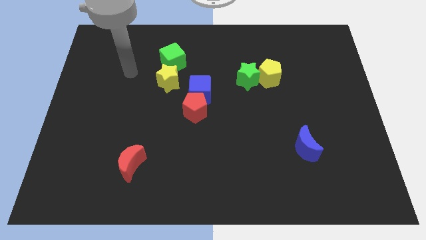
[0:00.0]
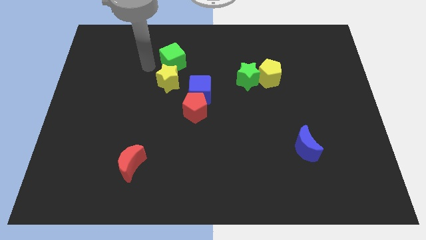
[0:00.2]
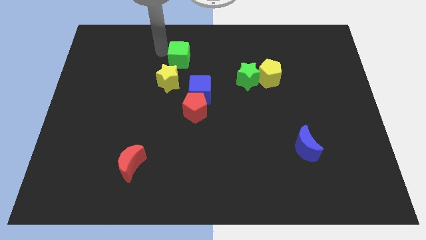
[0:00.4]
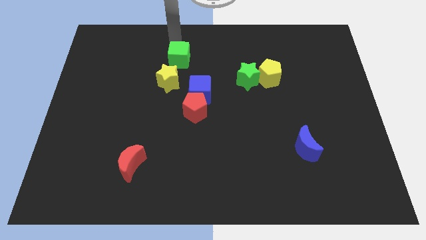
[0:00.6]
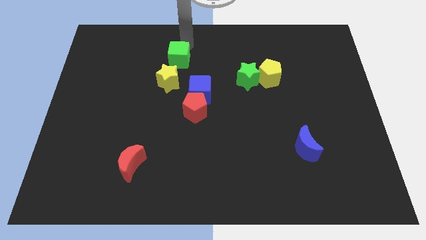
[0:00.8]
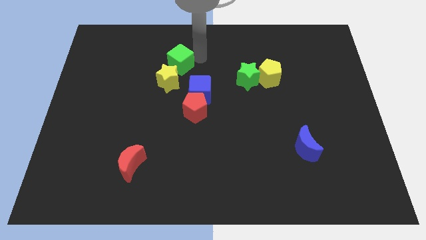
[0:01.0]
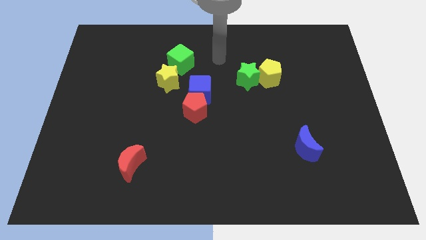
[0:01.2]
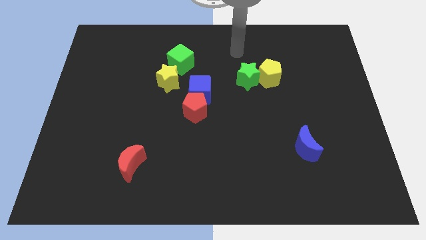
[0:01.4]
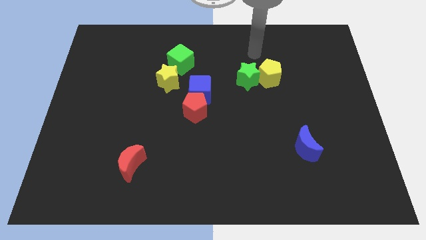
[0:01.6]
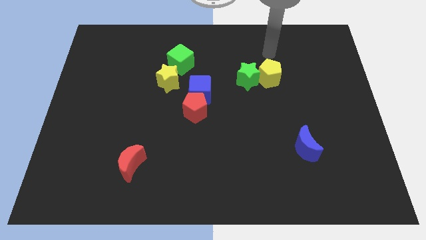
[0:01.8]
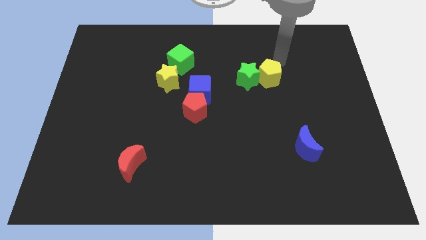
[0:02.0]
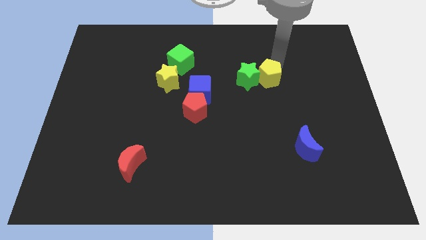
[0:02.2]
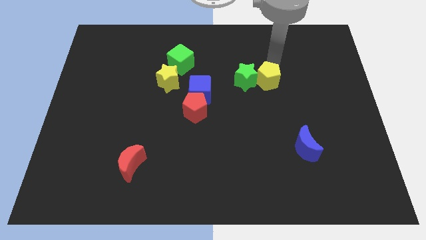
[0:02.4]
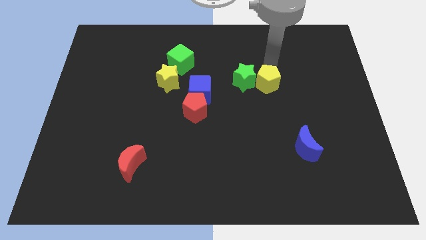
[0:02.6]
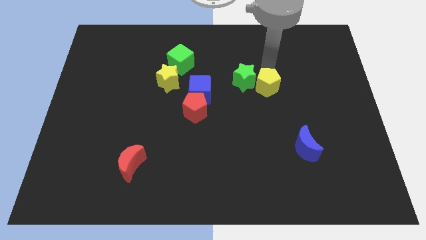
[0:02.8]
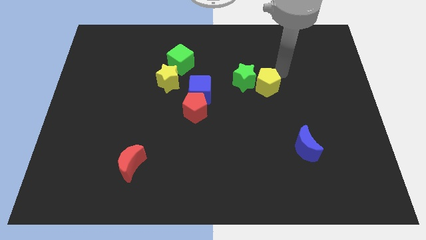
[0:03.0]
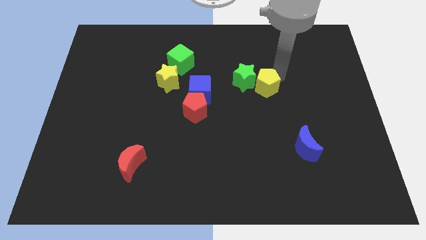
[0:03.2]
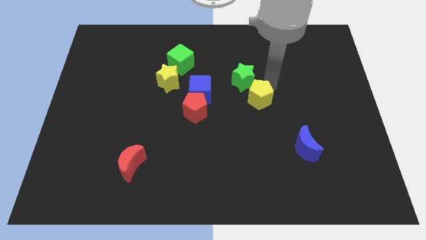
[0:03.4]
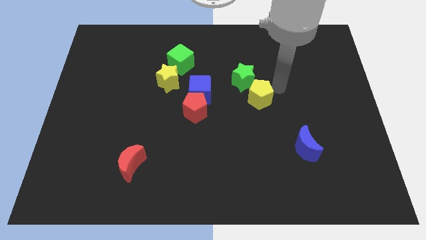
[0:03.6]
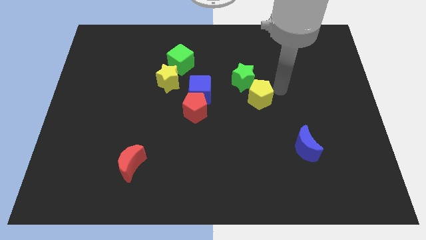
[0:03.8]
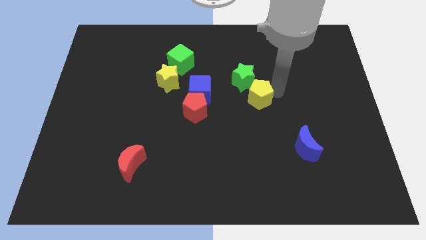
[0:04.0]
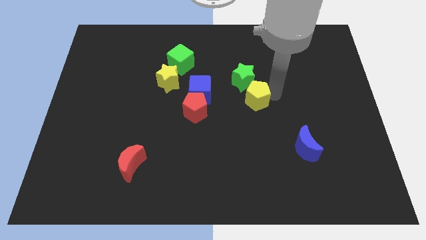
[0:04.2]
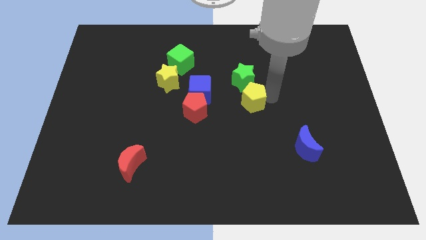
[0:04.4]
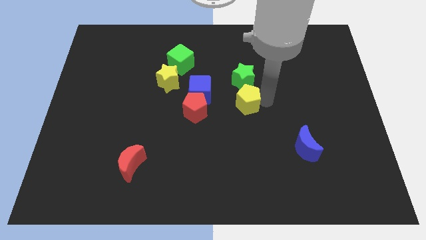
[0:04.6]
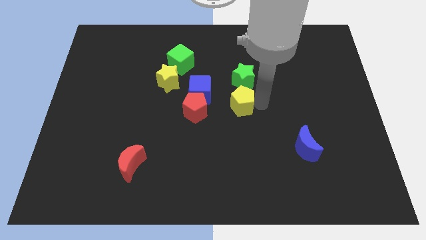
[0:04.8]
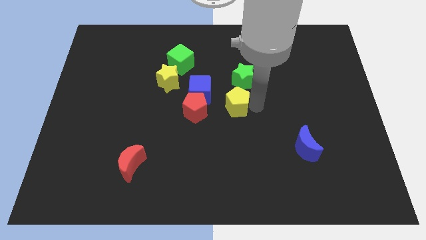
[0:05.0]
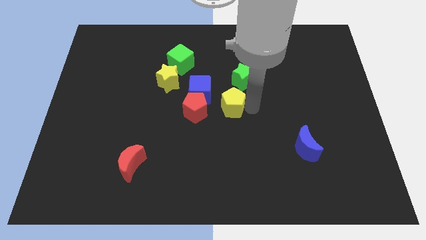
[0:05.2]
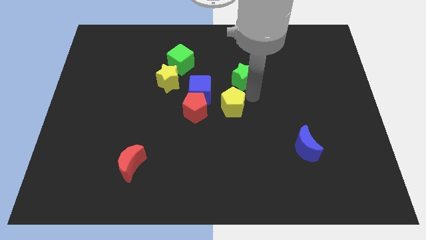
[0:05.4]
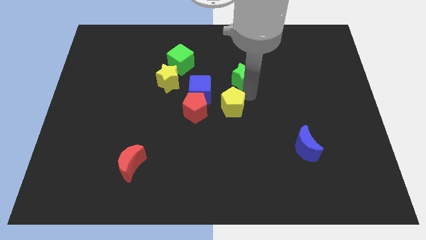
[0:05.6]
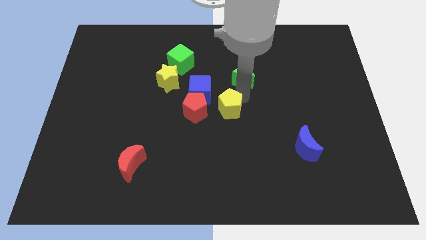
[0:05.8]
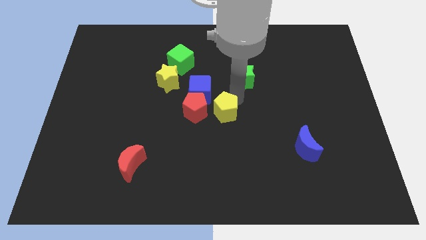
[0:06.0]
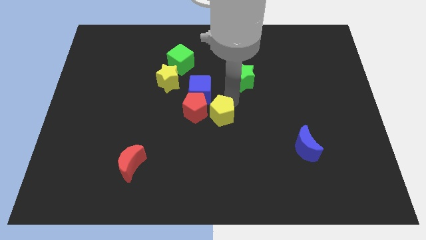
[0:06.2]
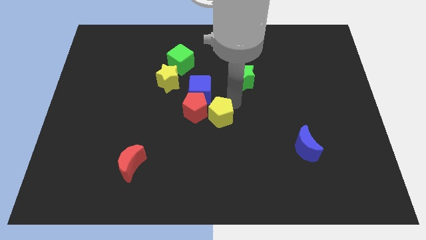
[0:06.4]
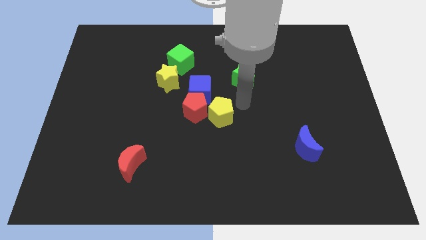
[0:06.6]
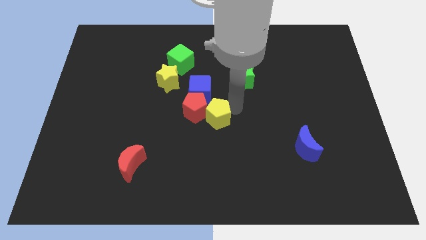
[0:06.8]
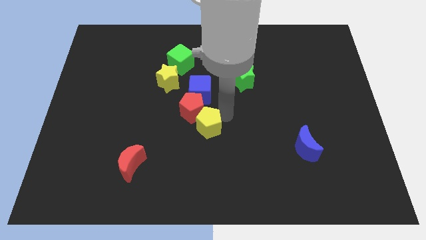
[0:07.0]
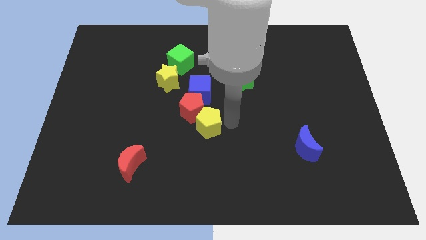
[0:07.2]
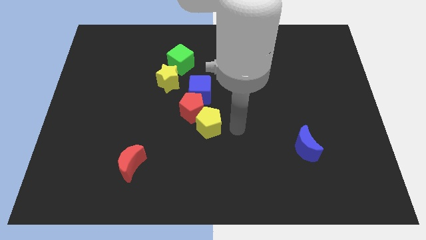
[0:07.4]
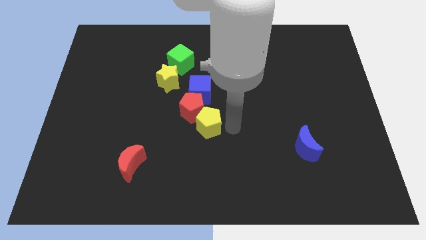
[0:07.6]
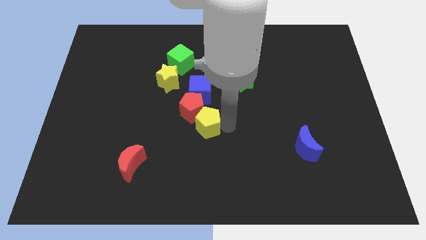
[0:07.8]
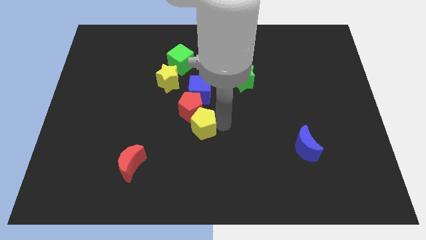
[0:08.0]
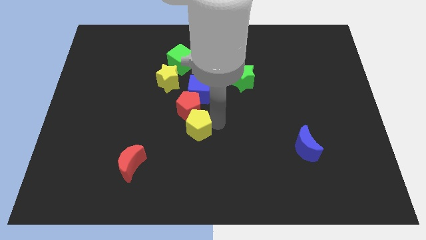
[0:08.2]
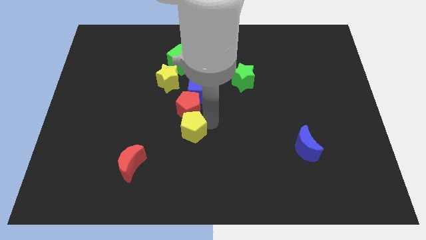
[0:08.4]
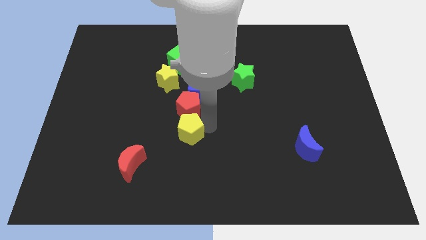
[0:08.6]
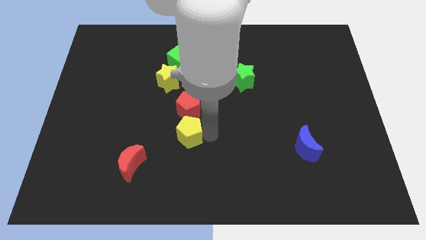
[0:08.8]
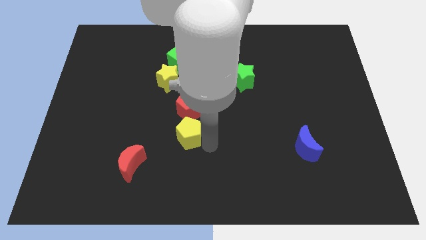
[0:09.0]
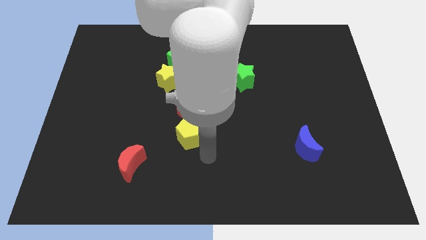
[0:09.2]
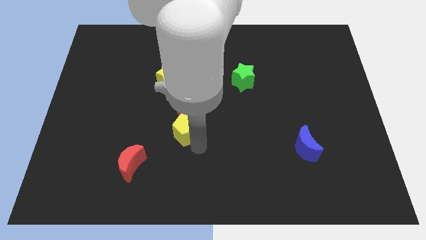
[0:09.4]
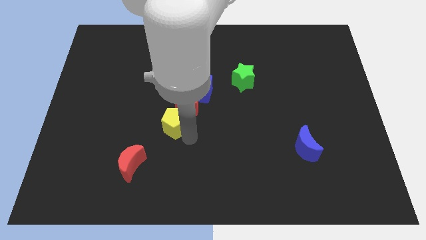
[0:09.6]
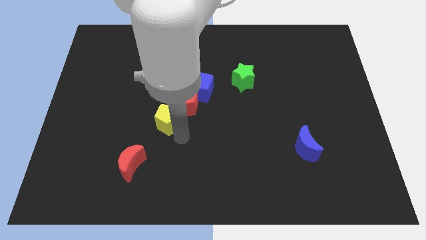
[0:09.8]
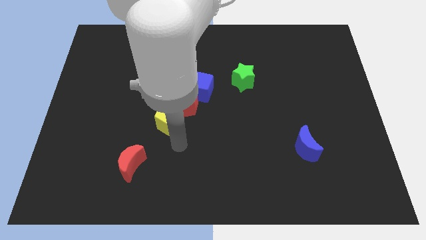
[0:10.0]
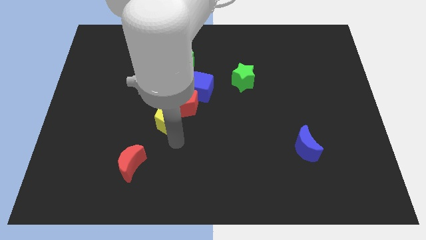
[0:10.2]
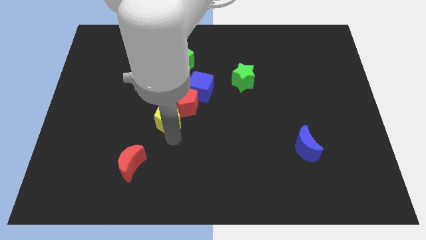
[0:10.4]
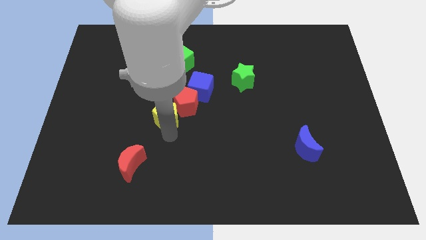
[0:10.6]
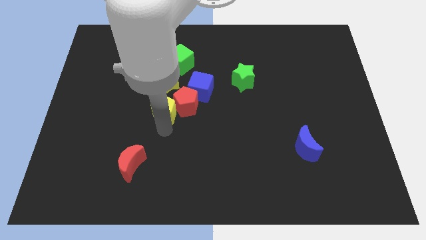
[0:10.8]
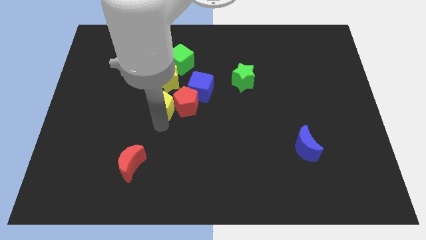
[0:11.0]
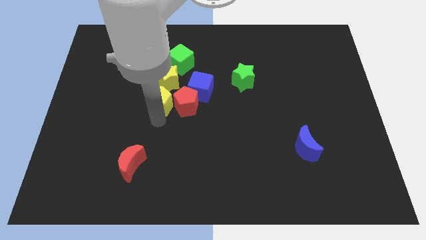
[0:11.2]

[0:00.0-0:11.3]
push the yellow pentagon left of the blue cube

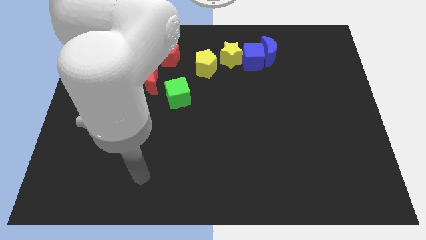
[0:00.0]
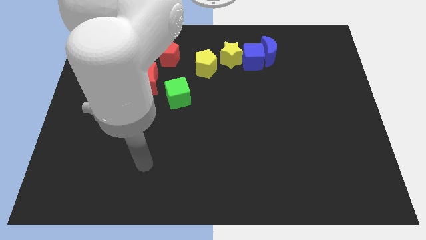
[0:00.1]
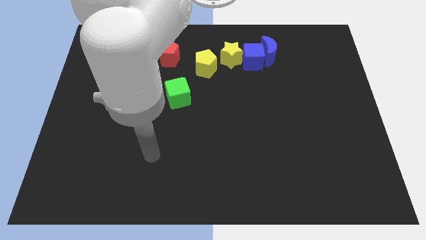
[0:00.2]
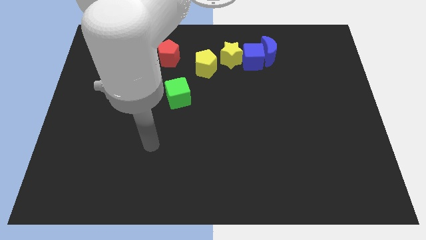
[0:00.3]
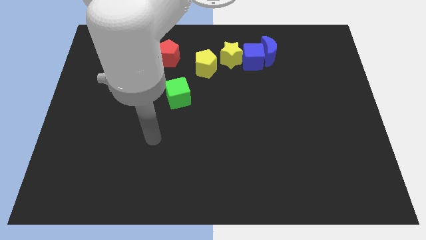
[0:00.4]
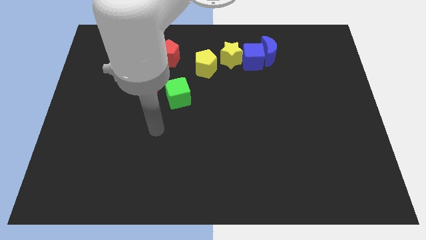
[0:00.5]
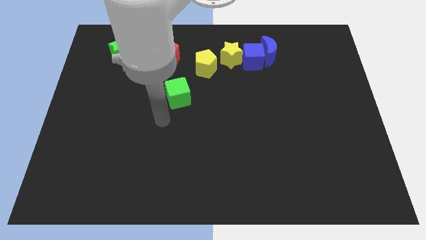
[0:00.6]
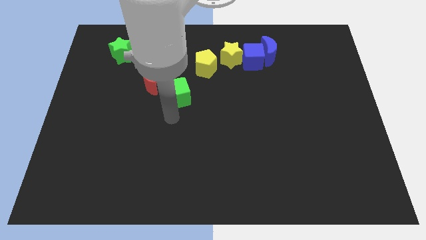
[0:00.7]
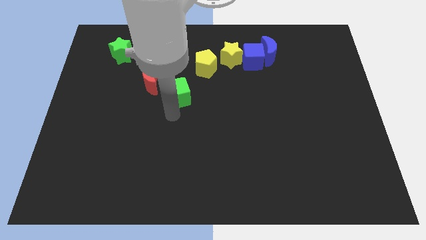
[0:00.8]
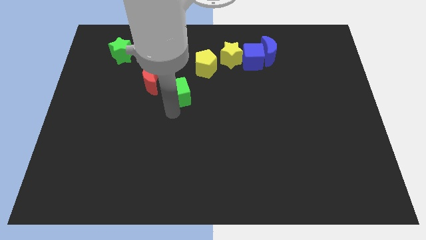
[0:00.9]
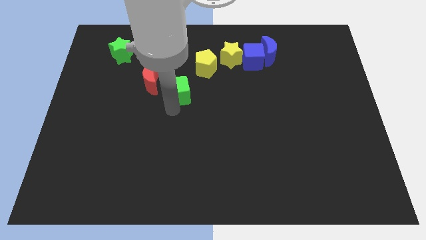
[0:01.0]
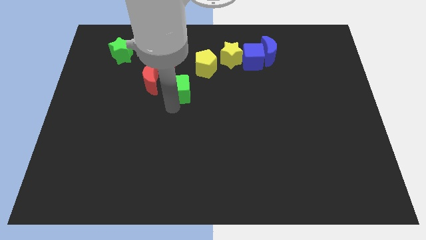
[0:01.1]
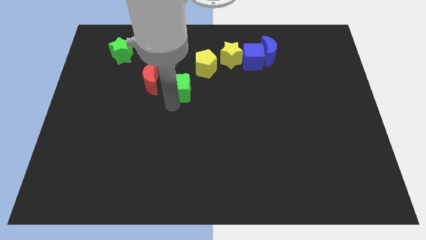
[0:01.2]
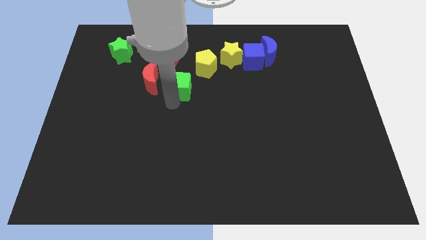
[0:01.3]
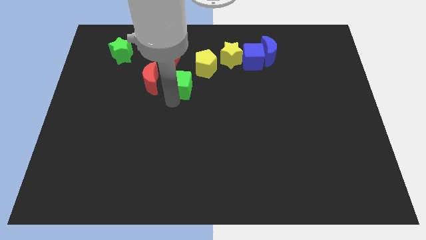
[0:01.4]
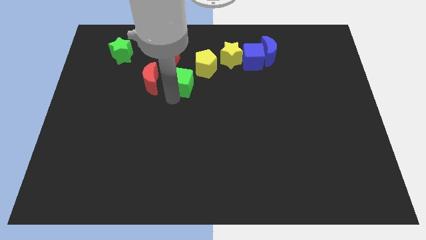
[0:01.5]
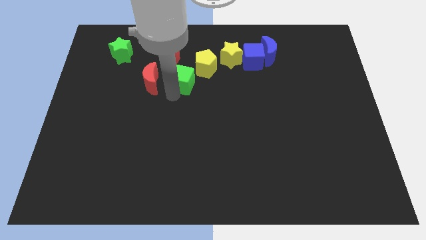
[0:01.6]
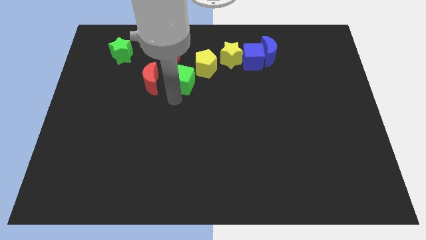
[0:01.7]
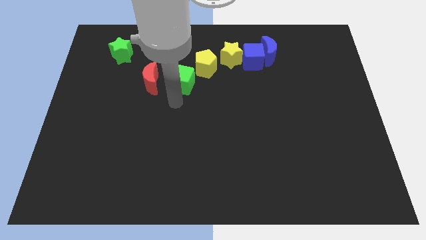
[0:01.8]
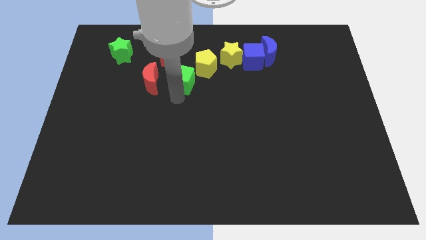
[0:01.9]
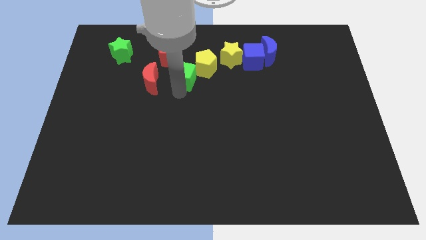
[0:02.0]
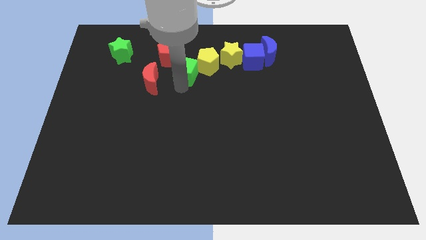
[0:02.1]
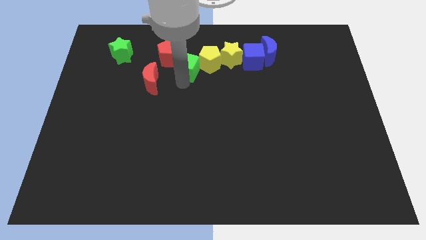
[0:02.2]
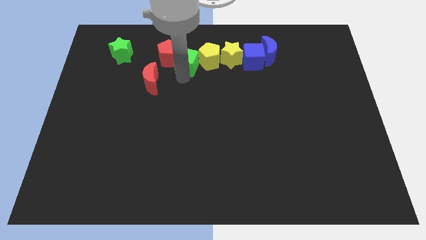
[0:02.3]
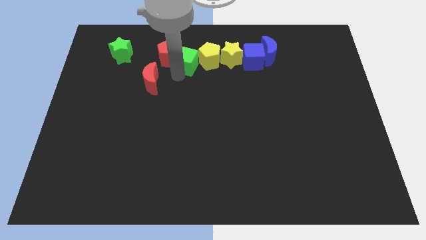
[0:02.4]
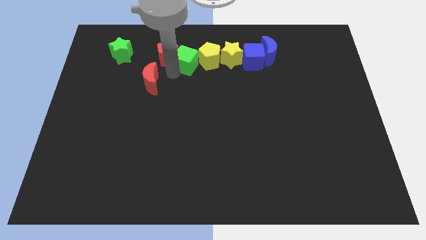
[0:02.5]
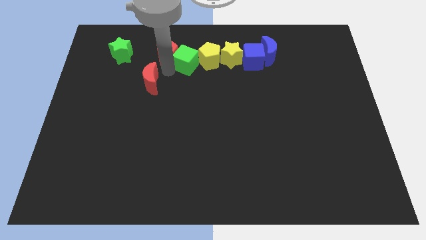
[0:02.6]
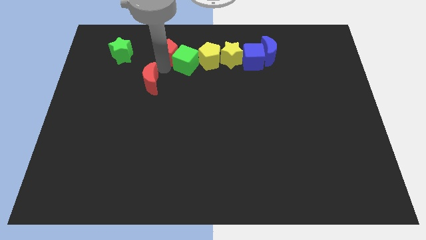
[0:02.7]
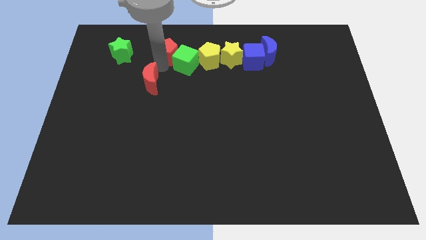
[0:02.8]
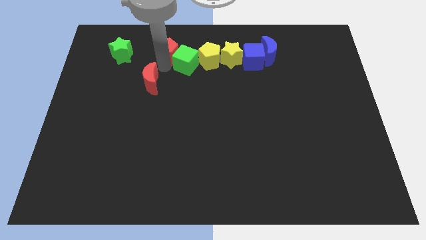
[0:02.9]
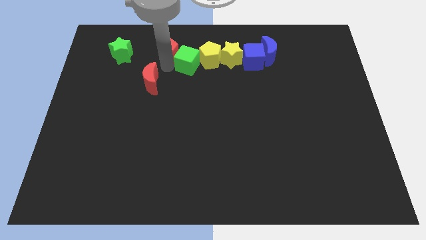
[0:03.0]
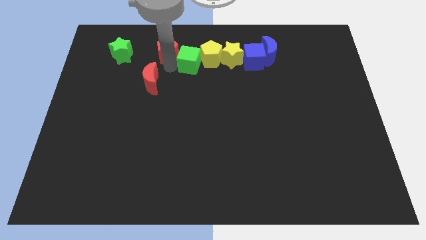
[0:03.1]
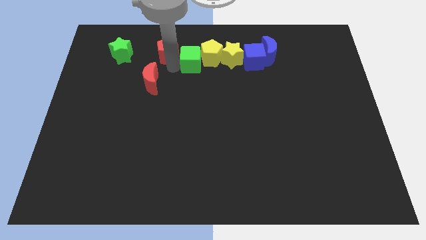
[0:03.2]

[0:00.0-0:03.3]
slide the green cube just left of the blue cube
